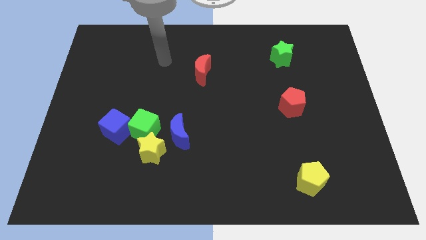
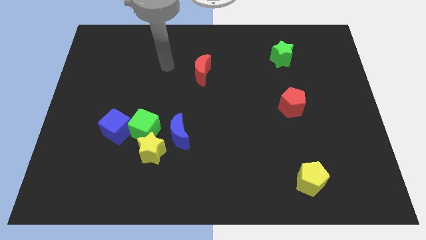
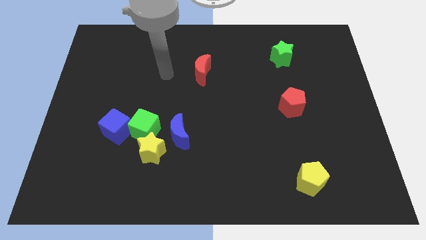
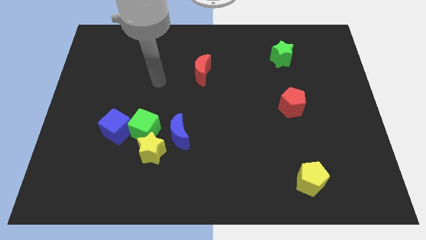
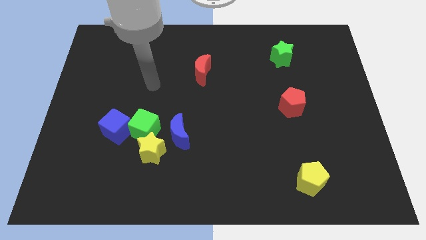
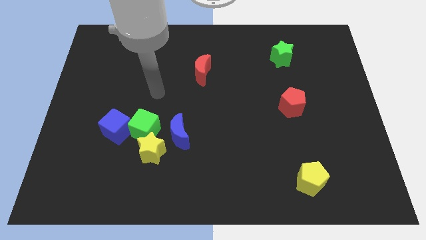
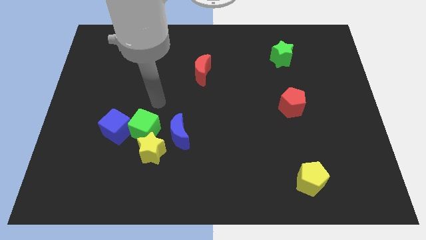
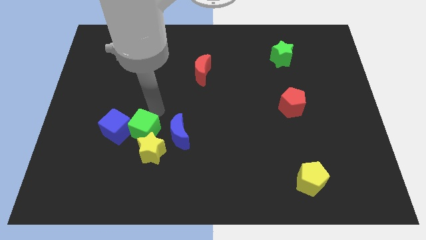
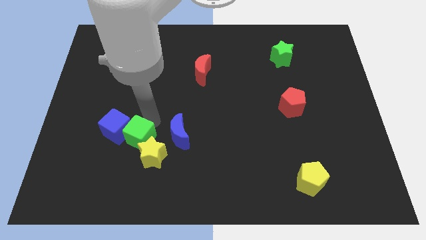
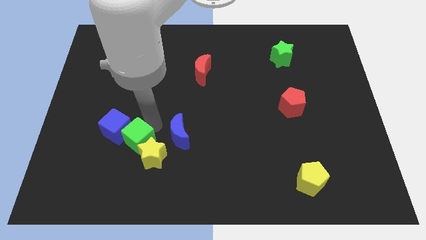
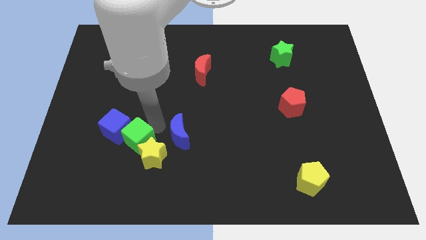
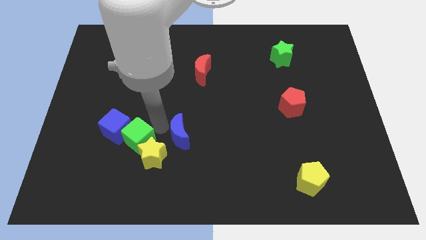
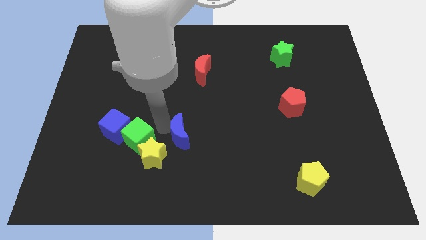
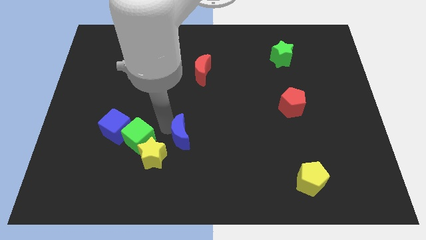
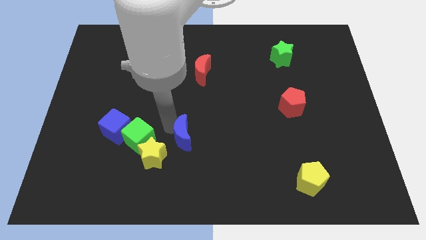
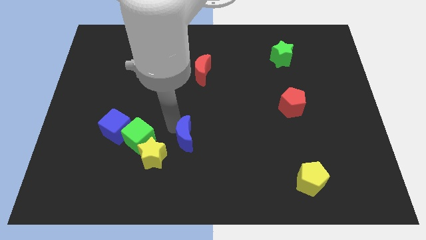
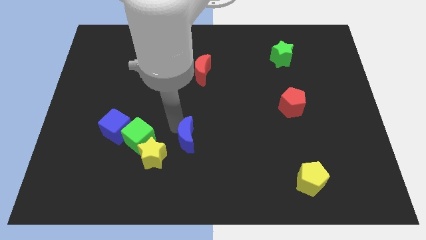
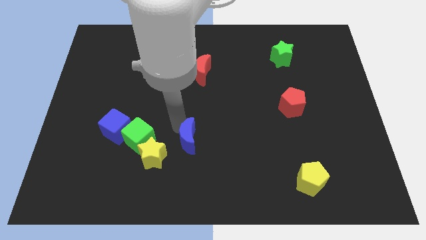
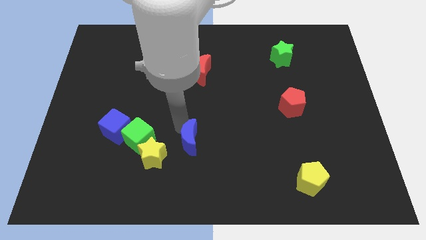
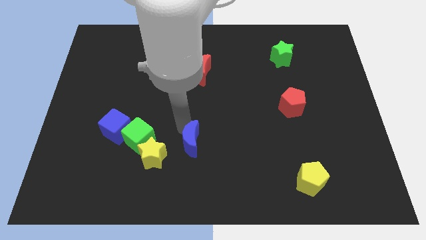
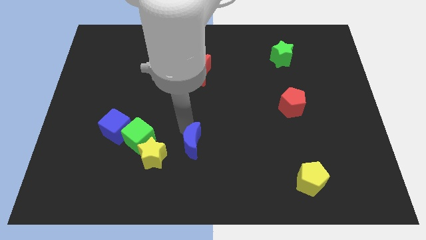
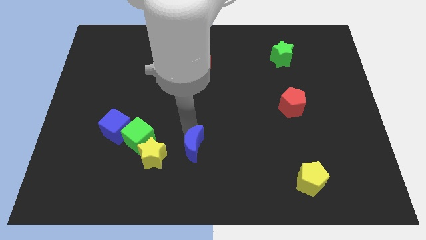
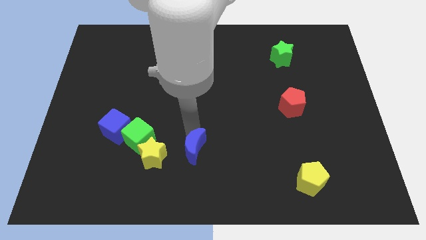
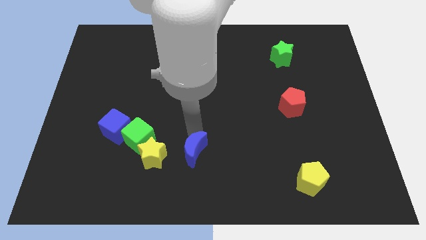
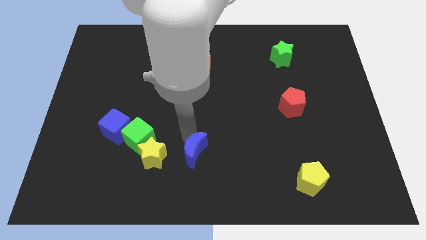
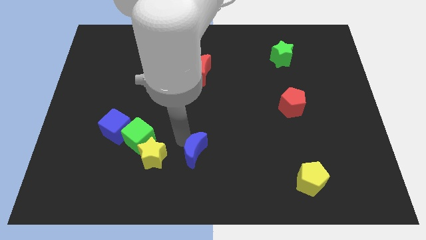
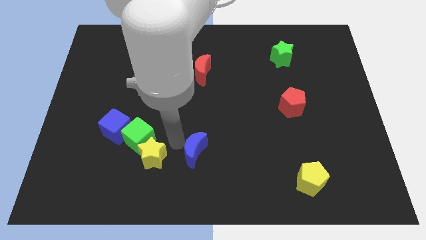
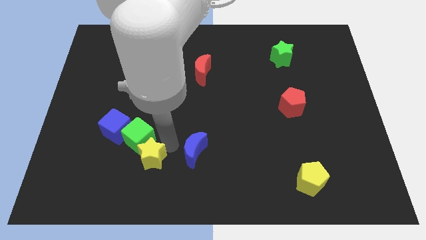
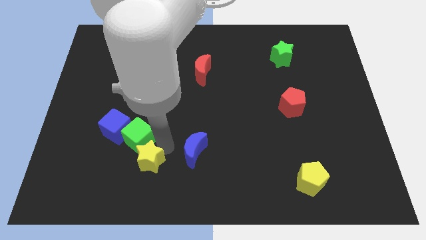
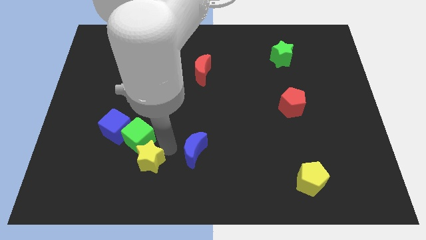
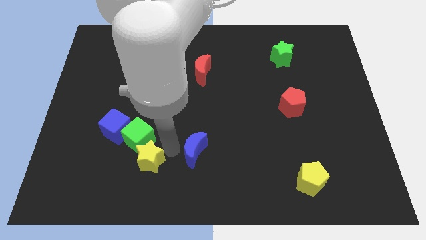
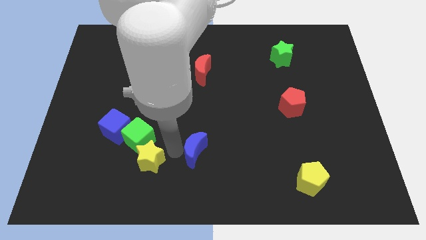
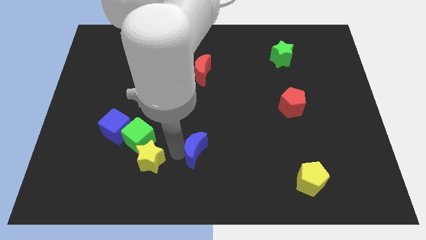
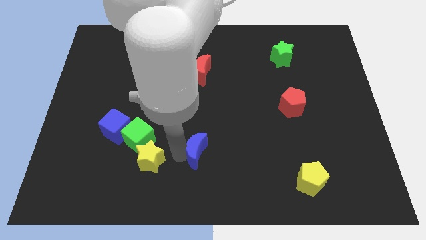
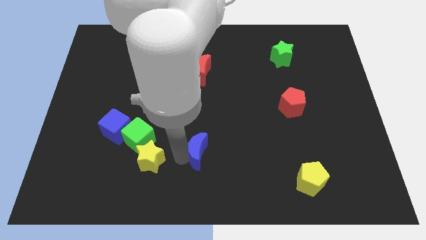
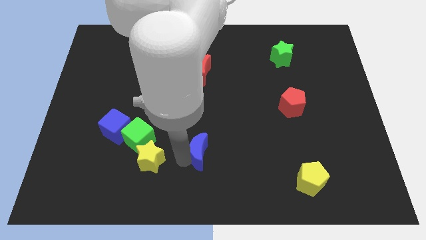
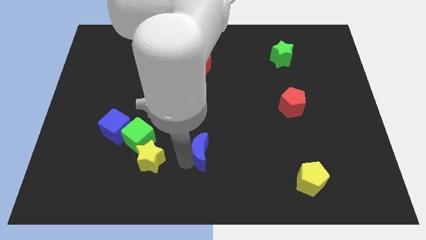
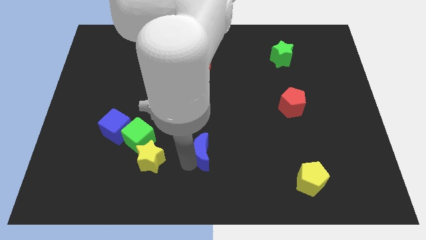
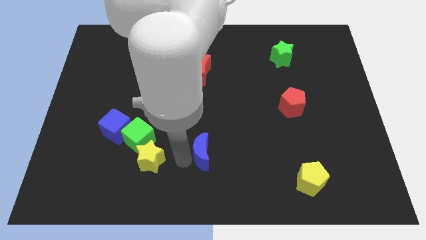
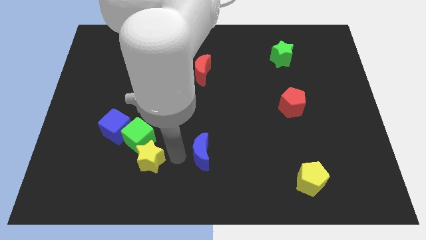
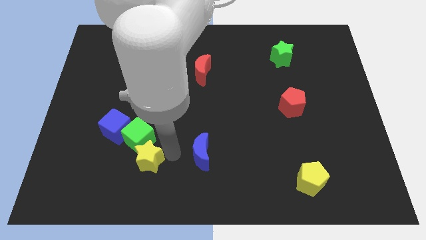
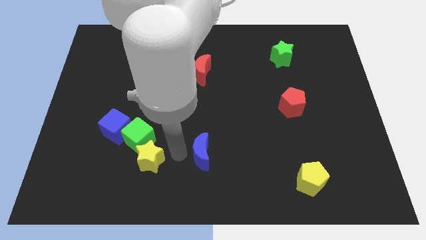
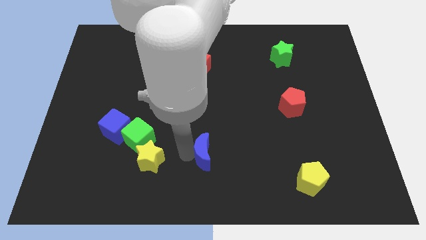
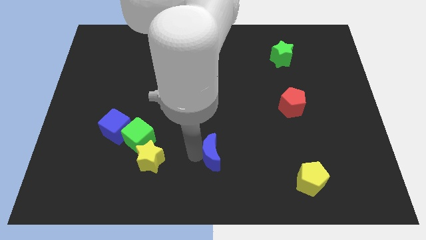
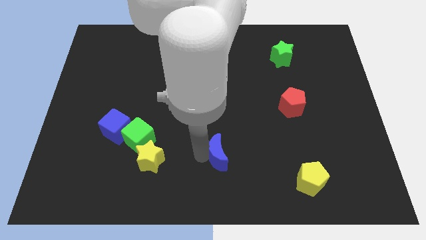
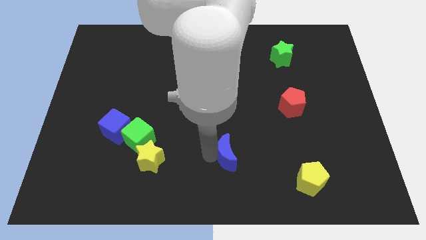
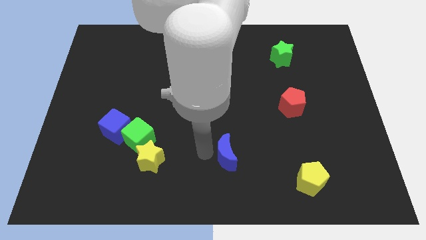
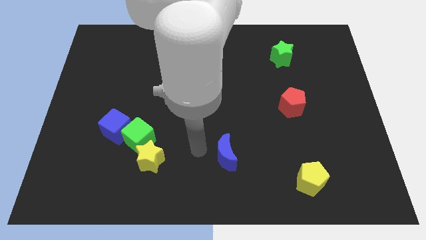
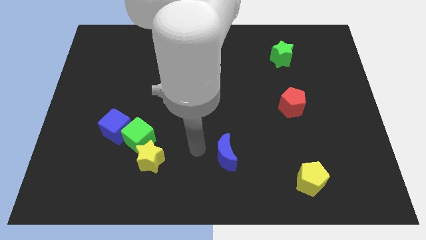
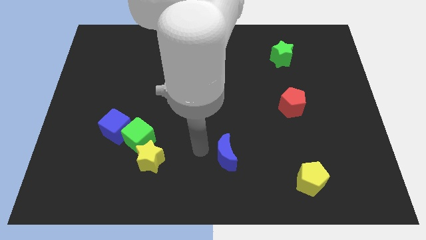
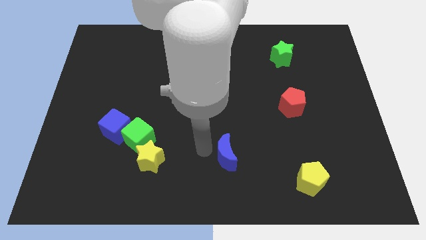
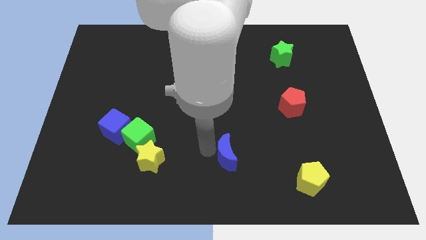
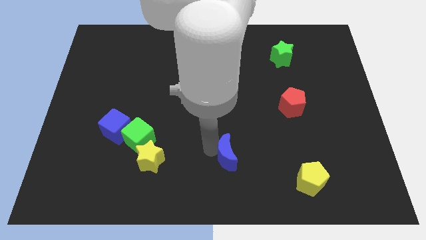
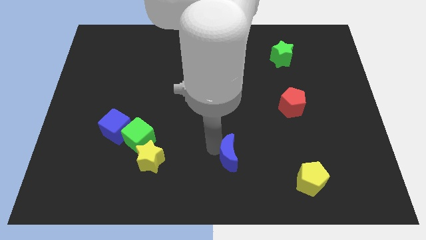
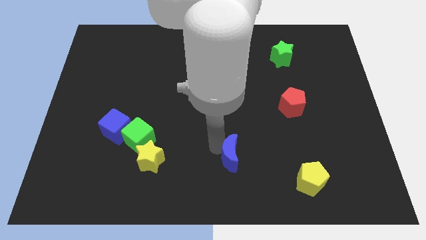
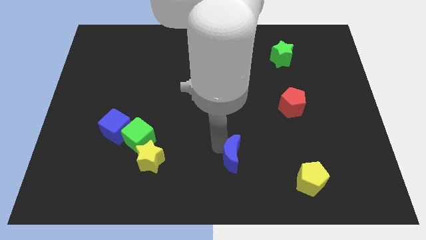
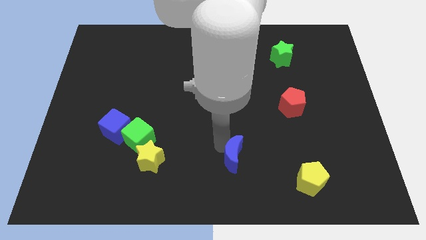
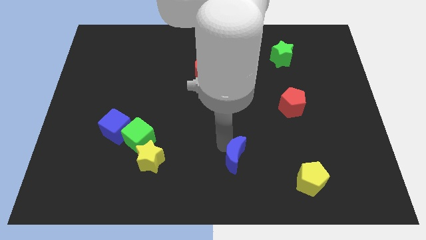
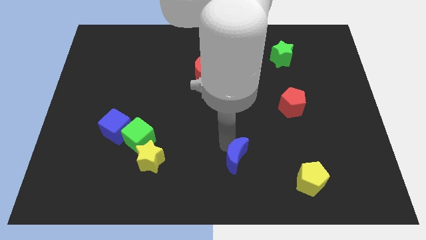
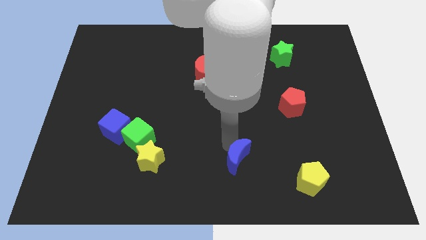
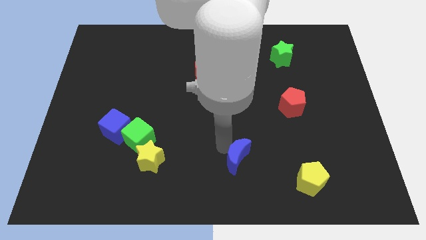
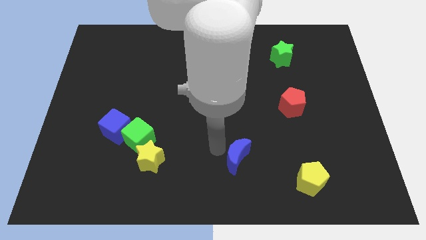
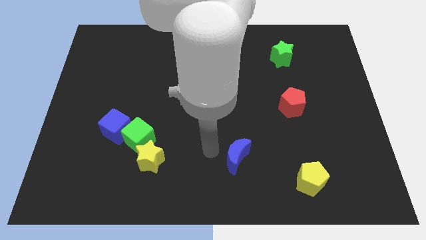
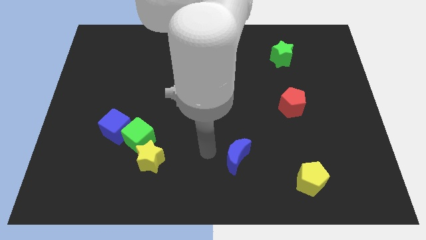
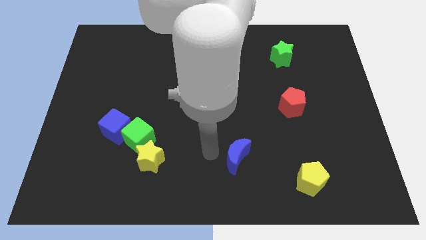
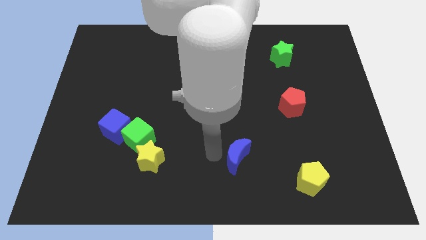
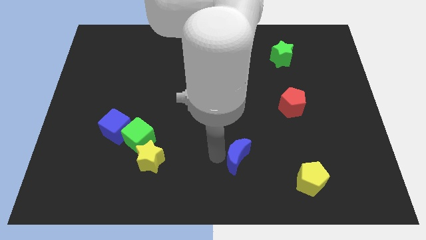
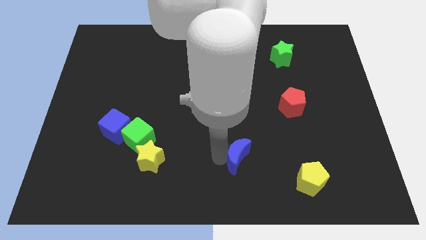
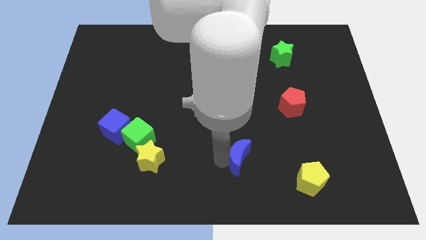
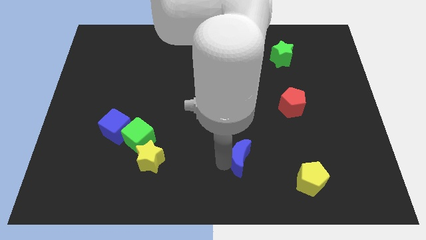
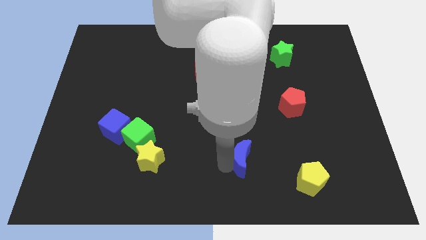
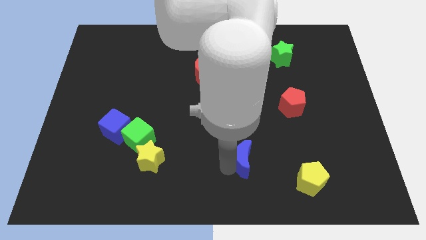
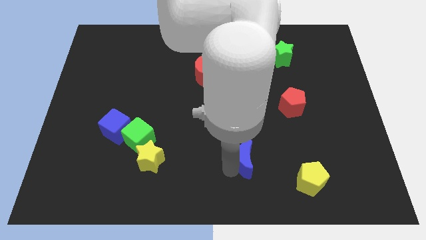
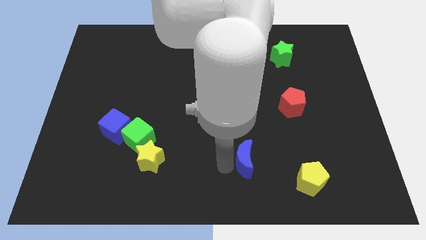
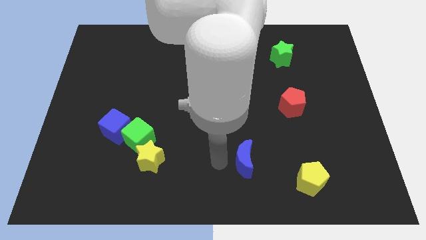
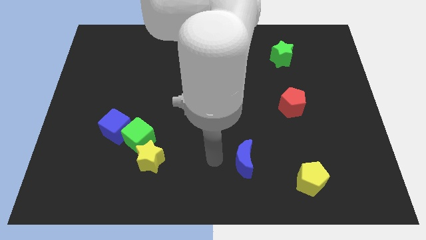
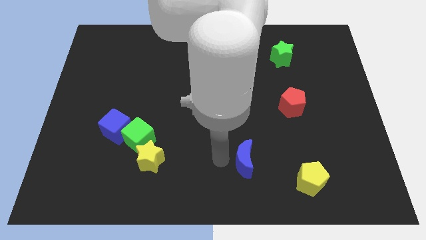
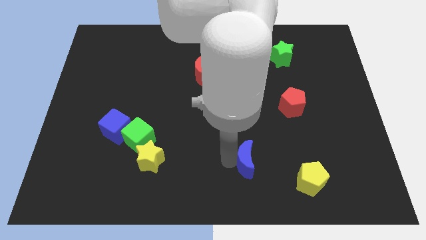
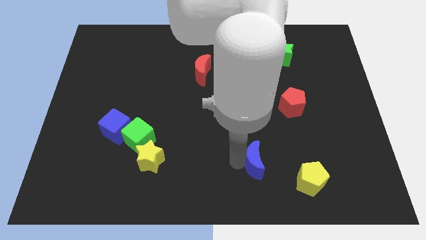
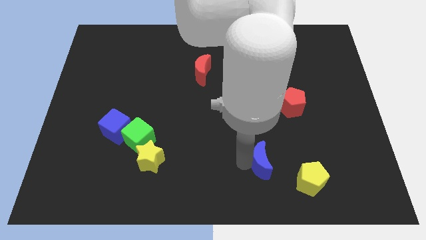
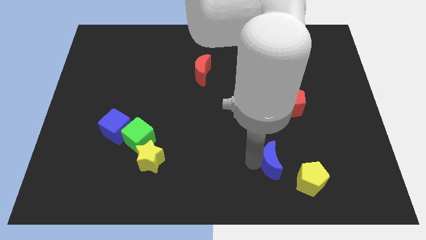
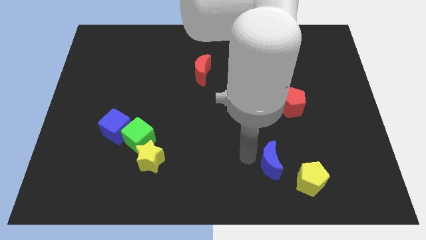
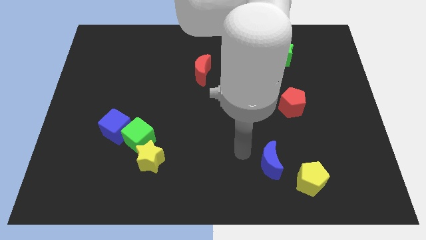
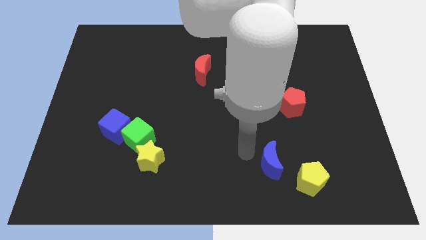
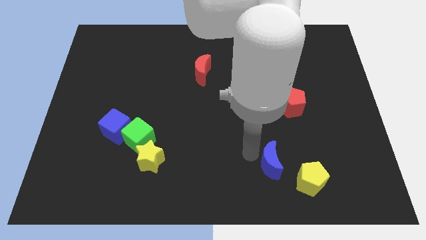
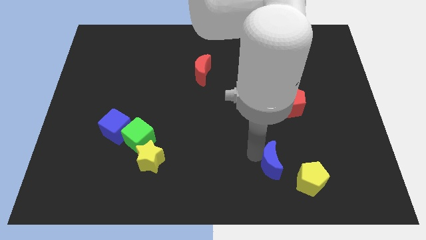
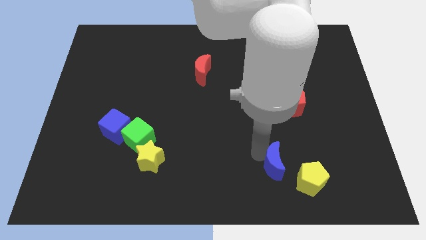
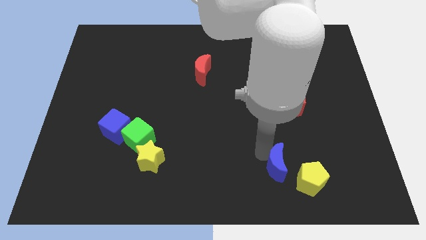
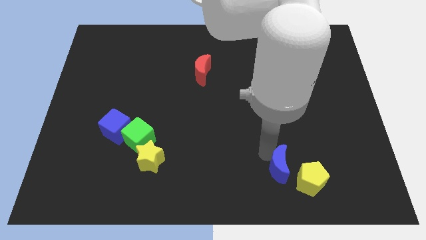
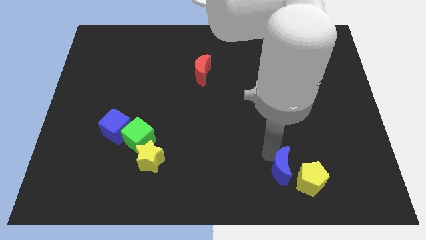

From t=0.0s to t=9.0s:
move the blue moon to the yellow pentagon
